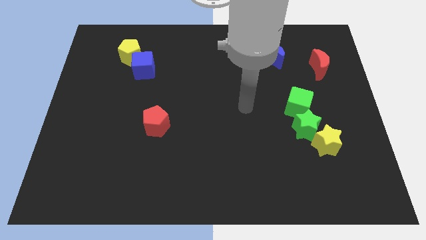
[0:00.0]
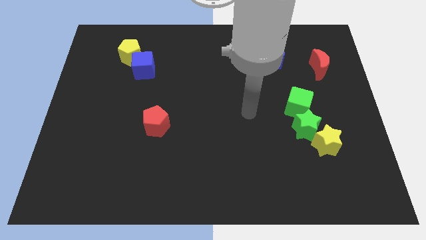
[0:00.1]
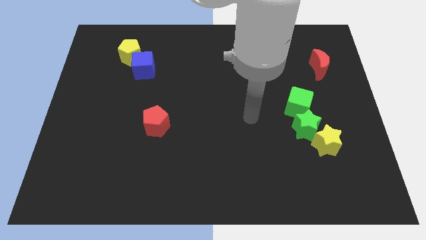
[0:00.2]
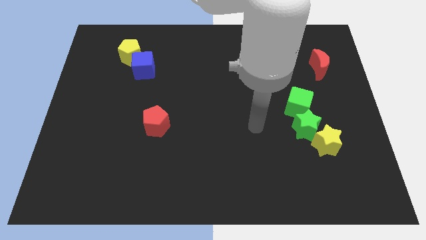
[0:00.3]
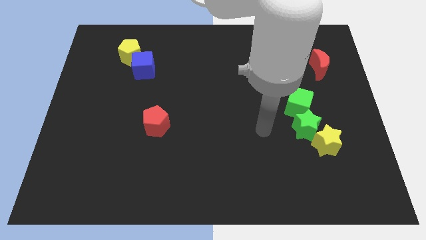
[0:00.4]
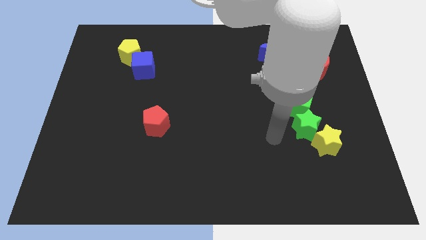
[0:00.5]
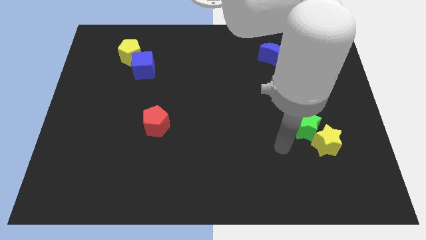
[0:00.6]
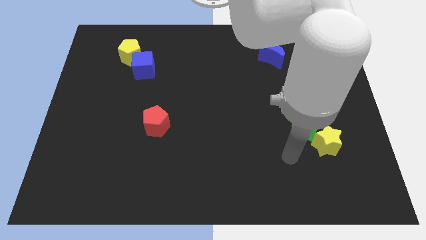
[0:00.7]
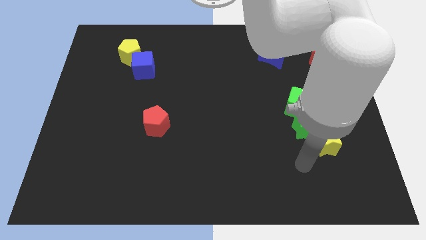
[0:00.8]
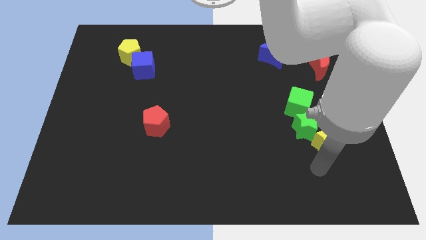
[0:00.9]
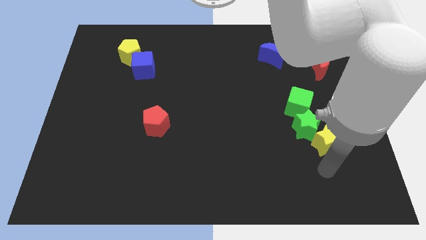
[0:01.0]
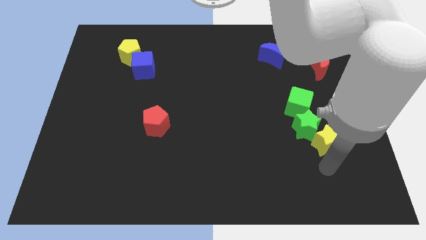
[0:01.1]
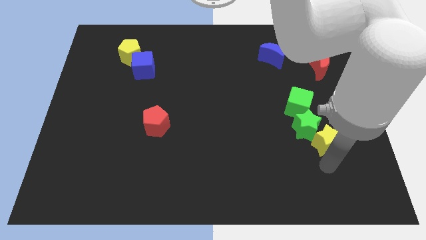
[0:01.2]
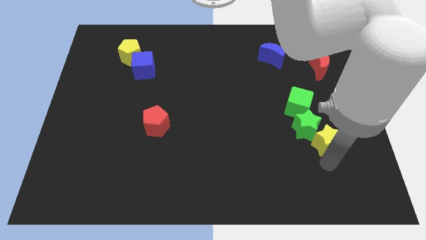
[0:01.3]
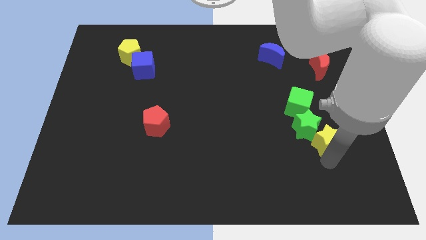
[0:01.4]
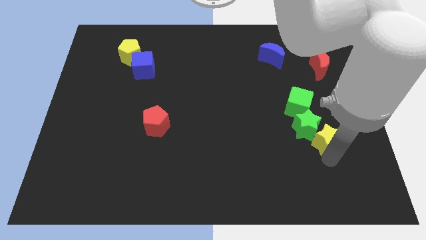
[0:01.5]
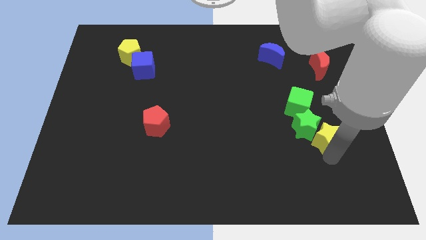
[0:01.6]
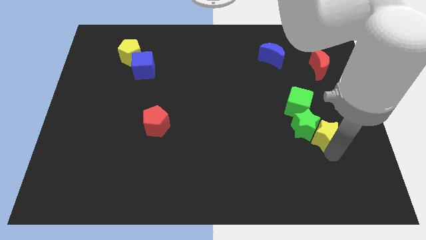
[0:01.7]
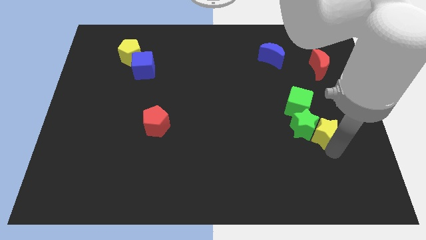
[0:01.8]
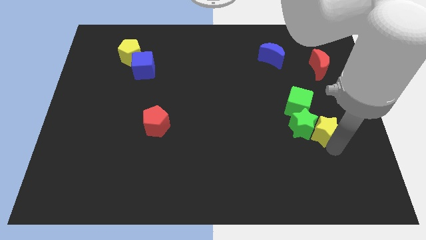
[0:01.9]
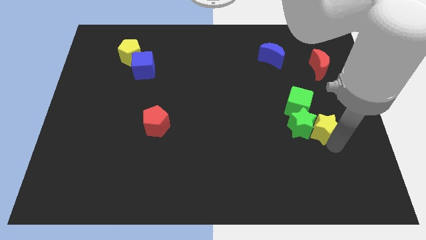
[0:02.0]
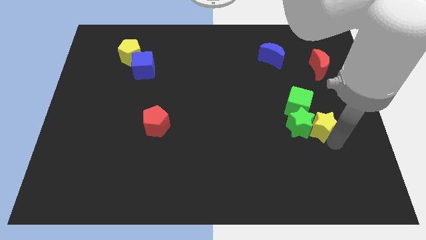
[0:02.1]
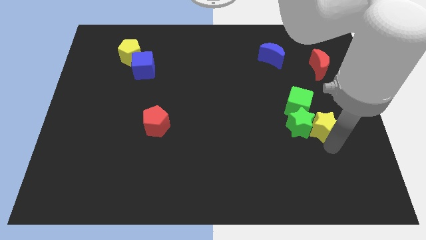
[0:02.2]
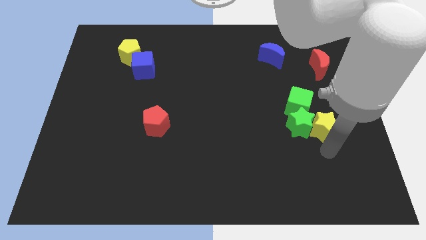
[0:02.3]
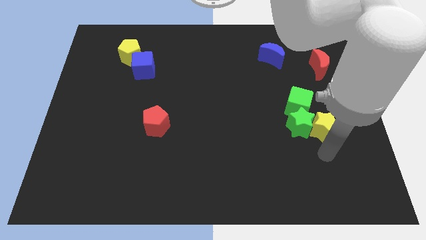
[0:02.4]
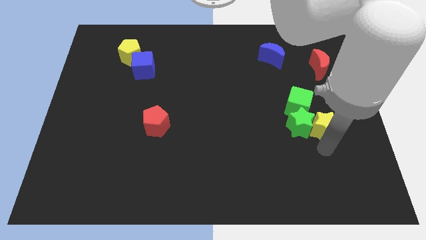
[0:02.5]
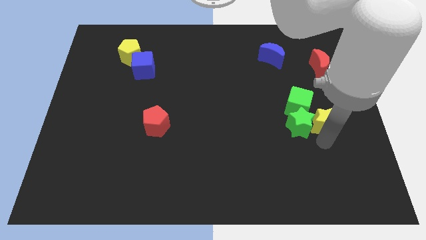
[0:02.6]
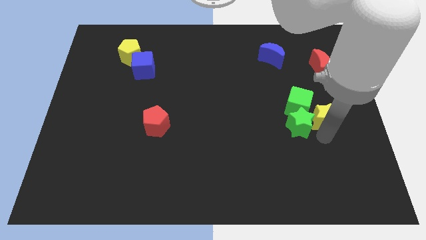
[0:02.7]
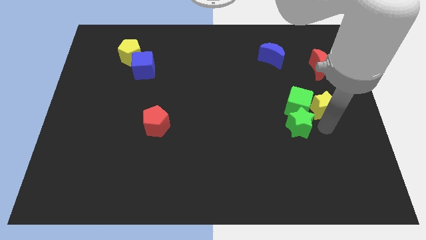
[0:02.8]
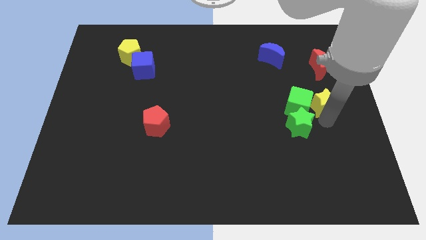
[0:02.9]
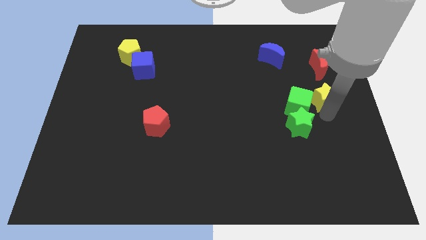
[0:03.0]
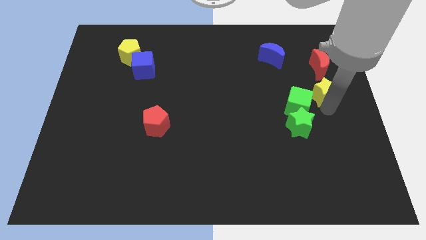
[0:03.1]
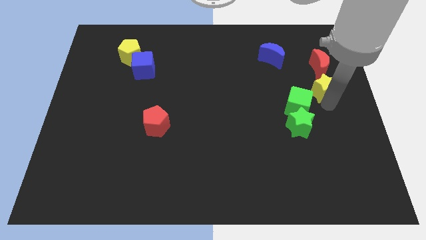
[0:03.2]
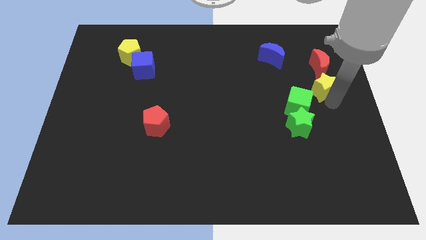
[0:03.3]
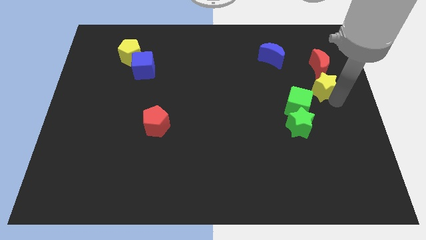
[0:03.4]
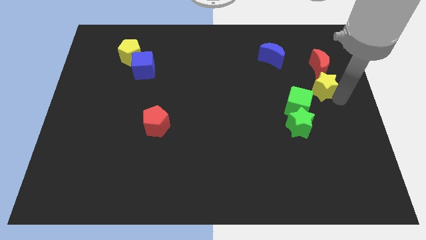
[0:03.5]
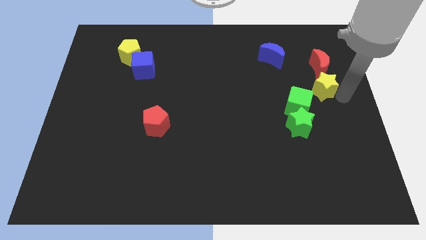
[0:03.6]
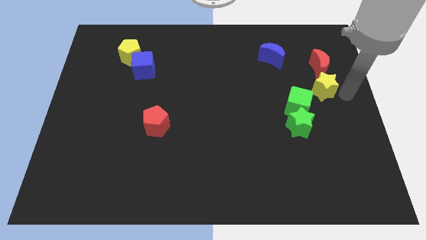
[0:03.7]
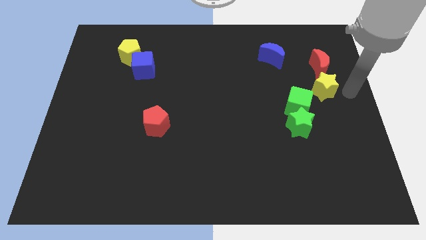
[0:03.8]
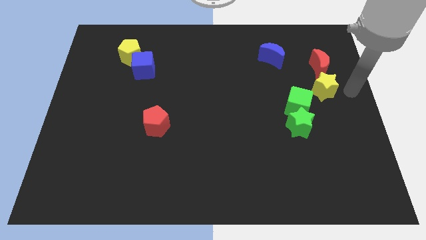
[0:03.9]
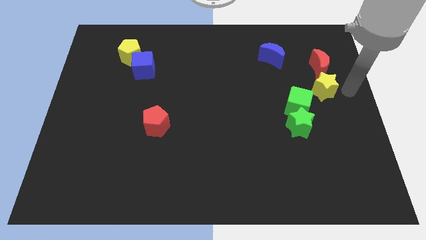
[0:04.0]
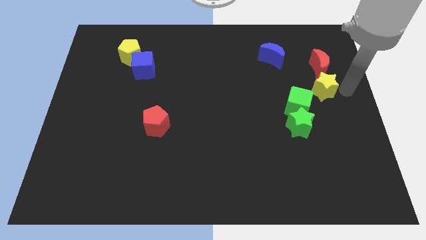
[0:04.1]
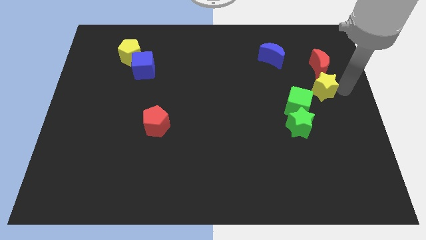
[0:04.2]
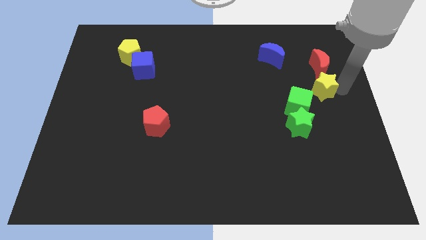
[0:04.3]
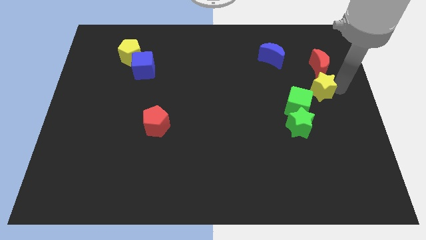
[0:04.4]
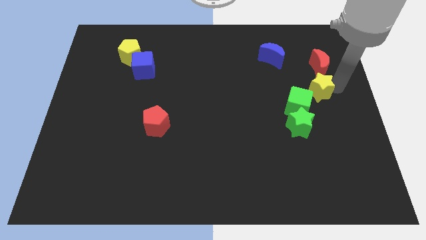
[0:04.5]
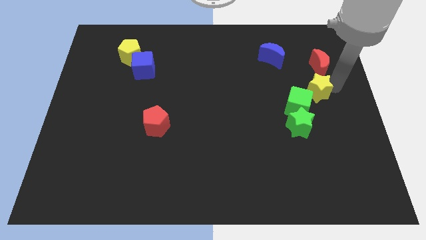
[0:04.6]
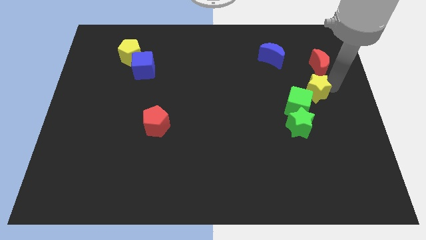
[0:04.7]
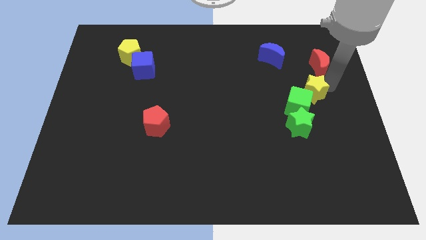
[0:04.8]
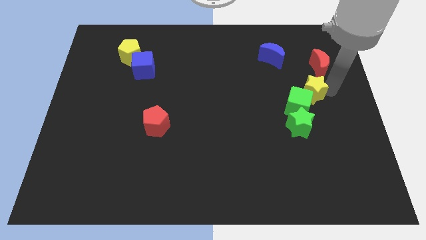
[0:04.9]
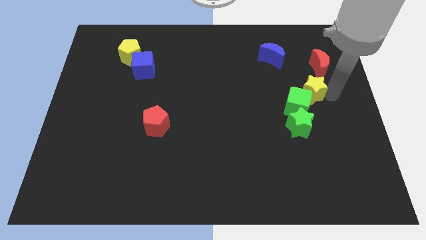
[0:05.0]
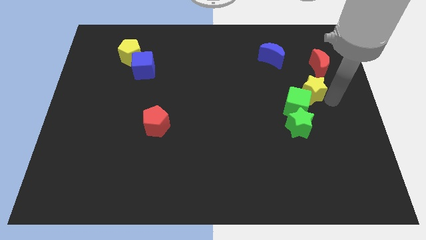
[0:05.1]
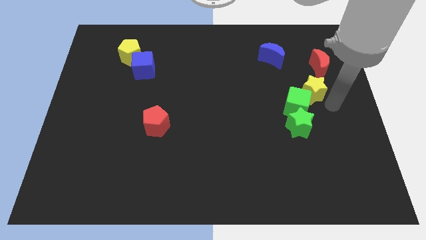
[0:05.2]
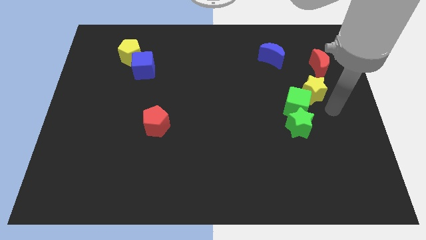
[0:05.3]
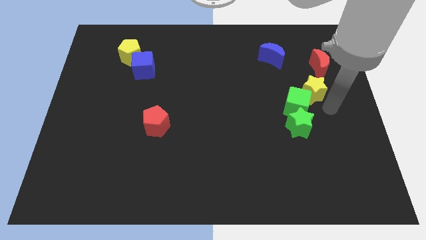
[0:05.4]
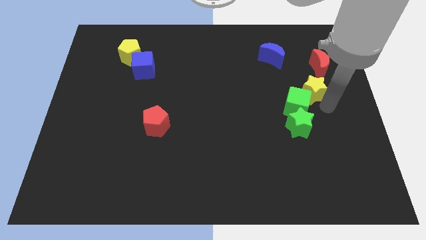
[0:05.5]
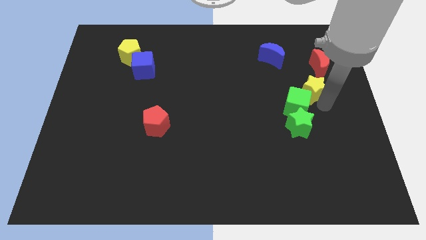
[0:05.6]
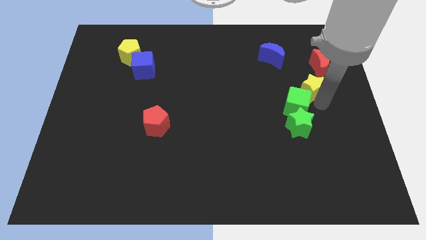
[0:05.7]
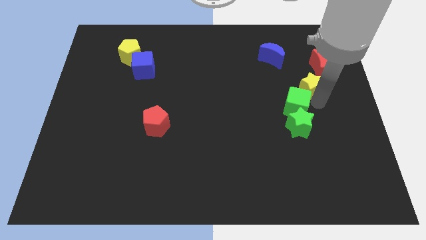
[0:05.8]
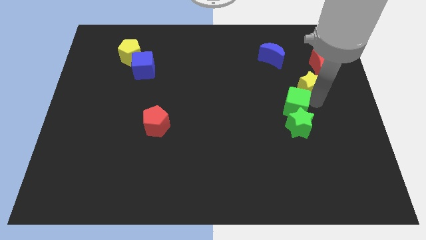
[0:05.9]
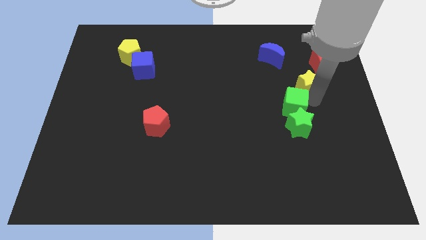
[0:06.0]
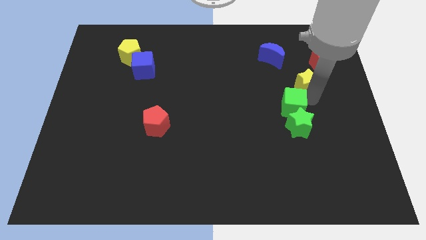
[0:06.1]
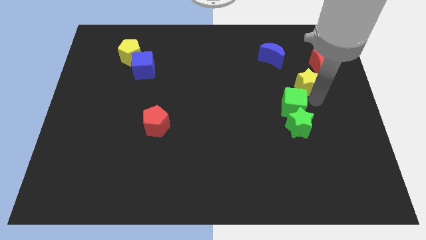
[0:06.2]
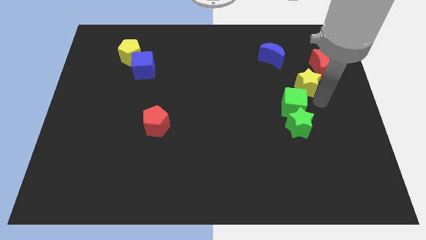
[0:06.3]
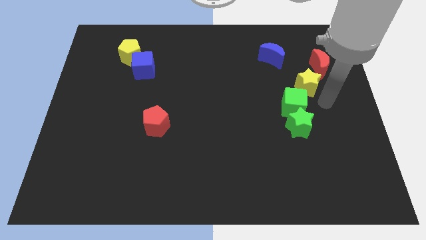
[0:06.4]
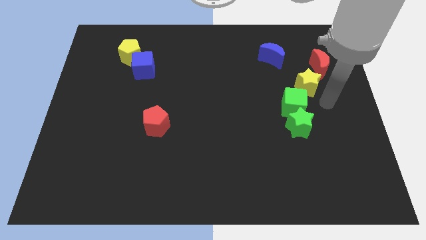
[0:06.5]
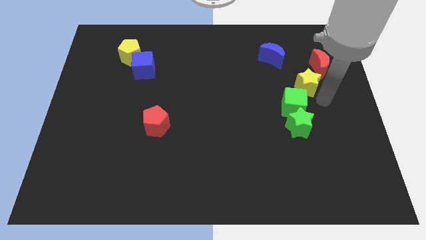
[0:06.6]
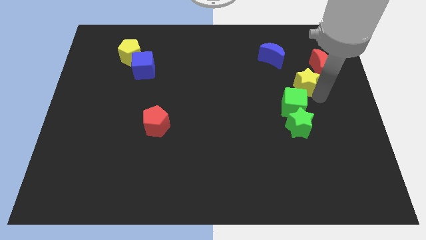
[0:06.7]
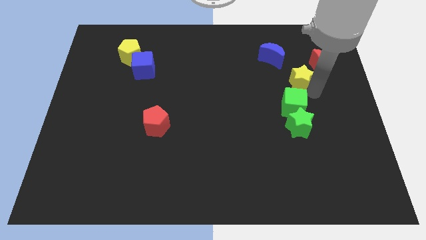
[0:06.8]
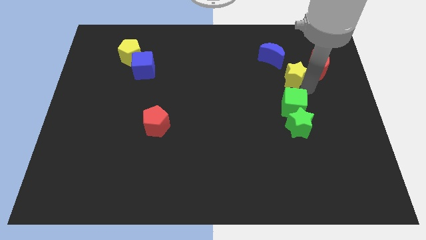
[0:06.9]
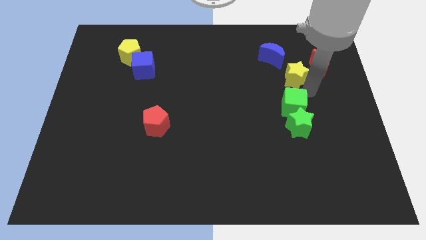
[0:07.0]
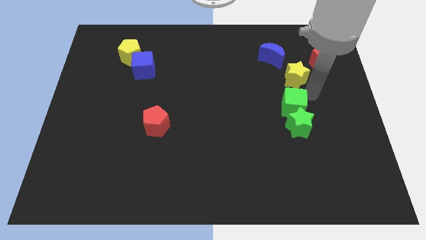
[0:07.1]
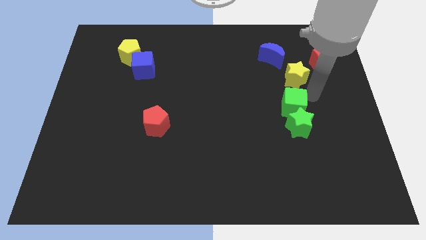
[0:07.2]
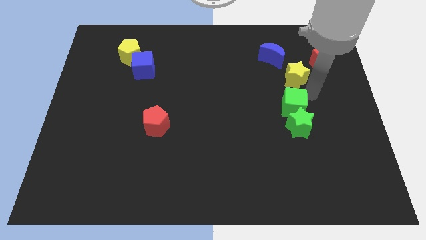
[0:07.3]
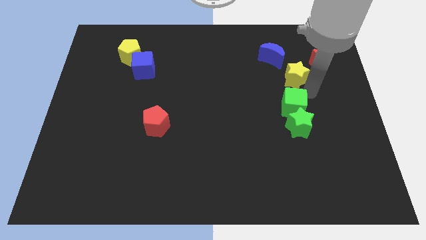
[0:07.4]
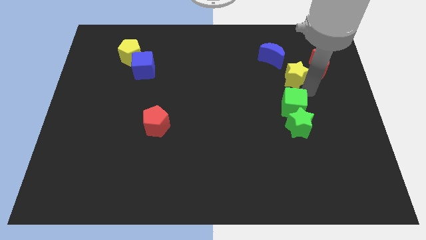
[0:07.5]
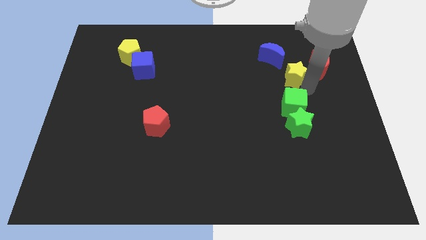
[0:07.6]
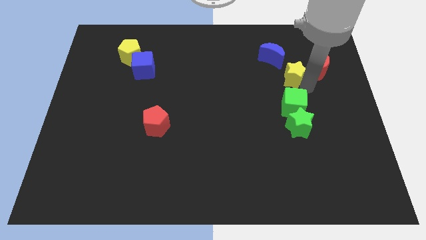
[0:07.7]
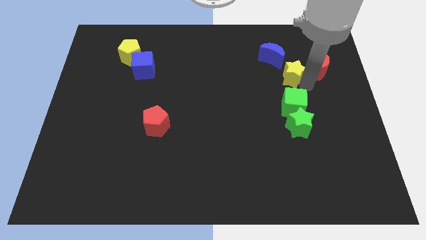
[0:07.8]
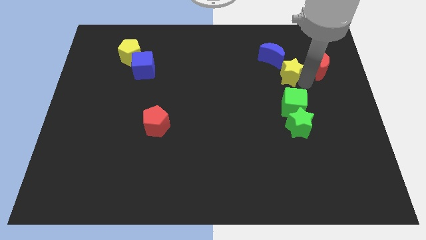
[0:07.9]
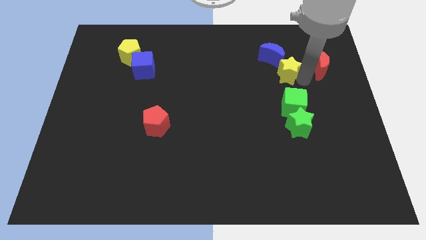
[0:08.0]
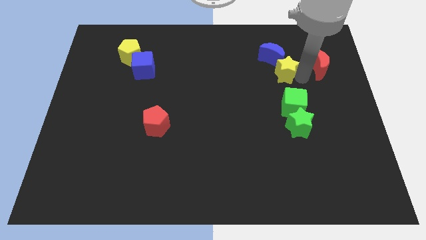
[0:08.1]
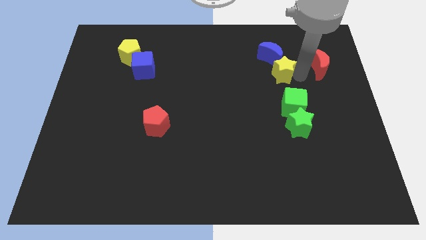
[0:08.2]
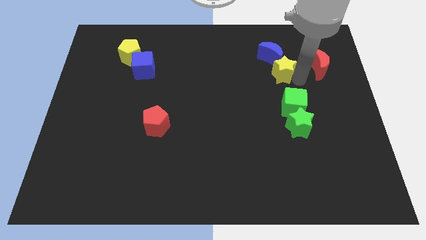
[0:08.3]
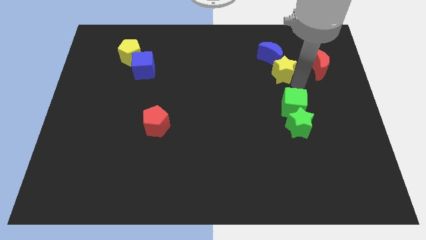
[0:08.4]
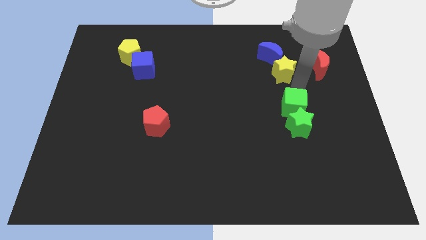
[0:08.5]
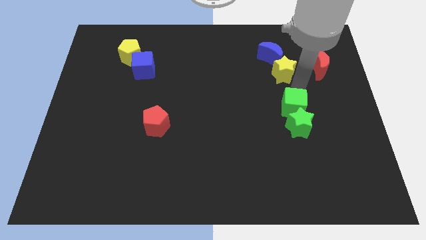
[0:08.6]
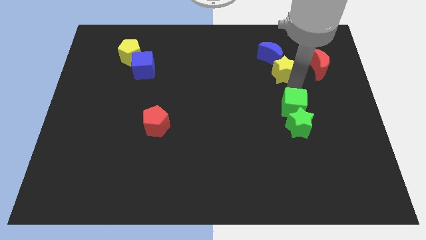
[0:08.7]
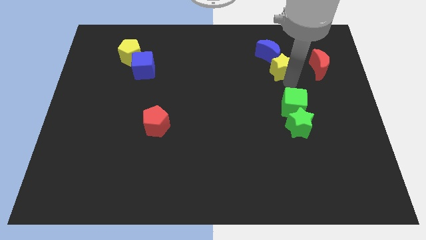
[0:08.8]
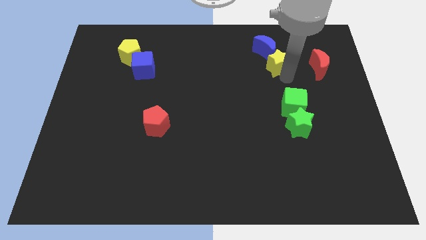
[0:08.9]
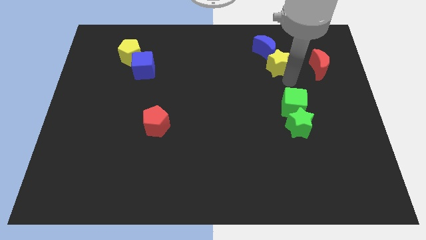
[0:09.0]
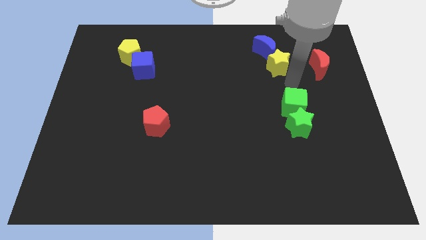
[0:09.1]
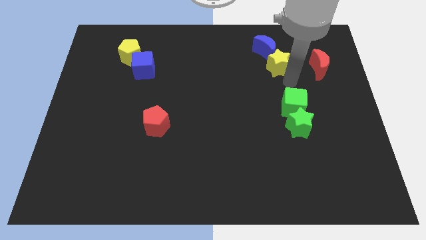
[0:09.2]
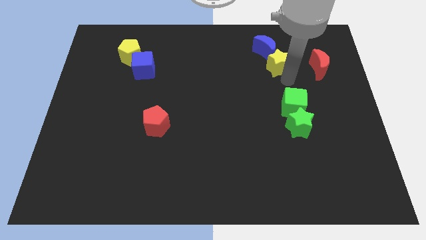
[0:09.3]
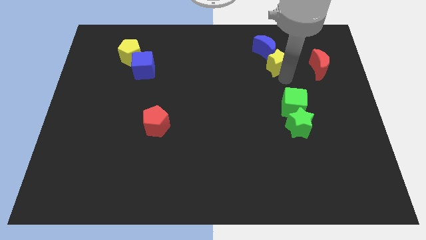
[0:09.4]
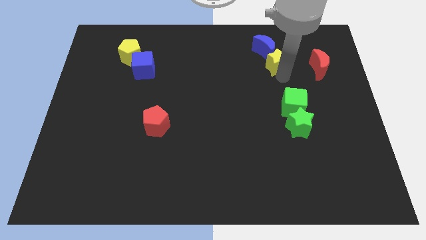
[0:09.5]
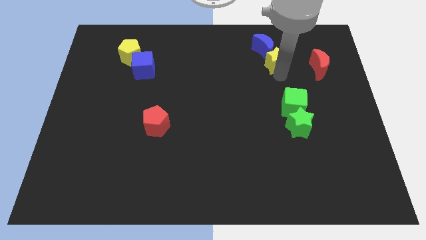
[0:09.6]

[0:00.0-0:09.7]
slide the yellow star towards the blue moon
